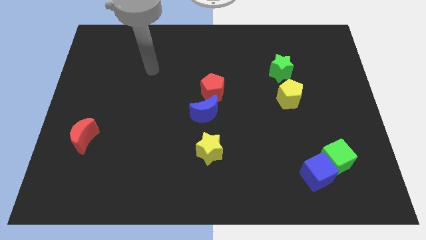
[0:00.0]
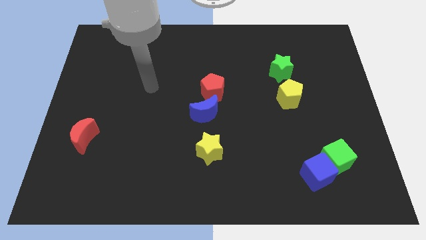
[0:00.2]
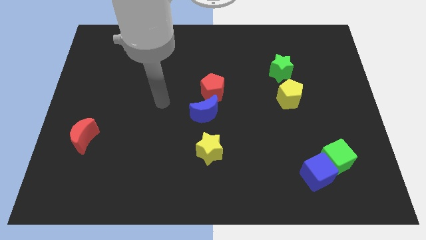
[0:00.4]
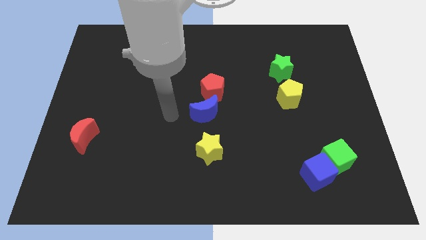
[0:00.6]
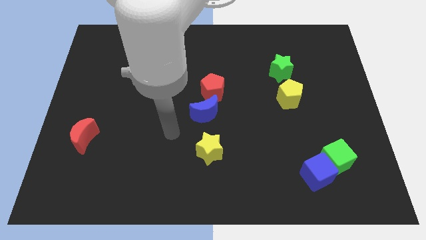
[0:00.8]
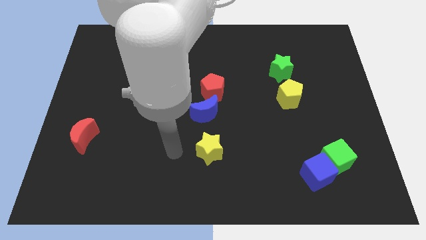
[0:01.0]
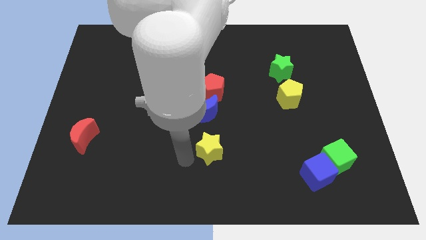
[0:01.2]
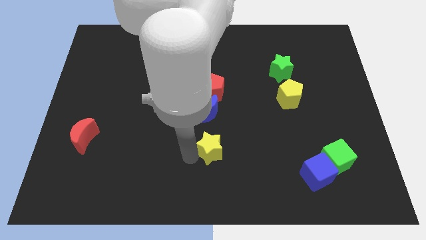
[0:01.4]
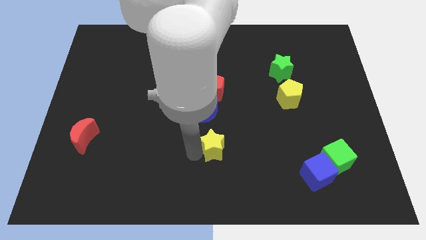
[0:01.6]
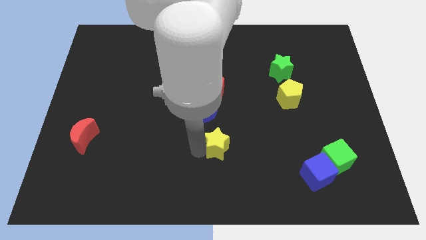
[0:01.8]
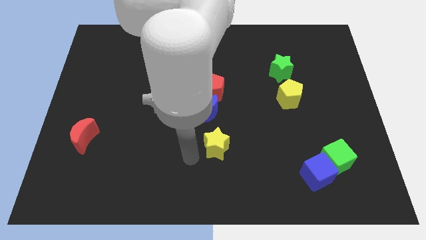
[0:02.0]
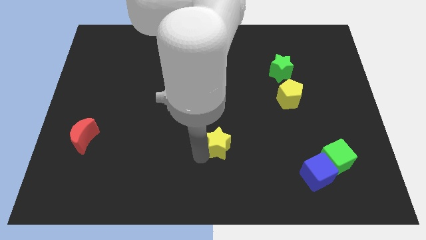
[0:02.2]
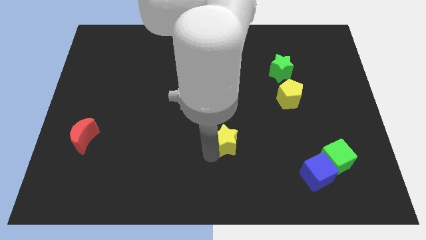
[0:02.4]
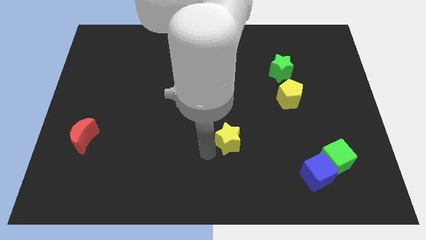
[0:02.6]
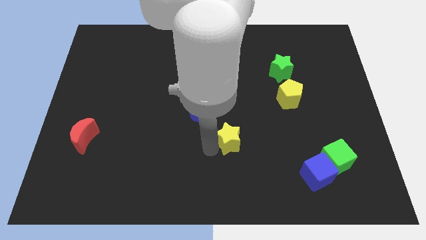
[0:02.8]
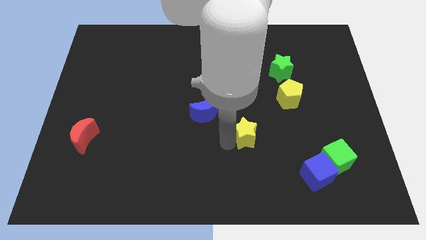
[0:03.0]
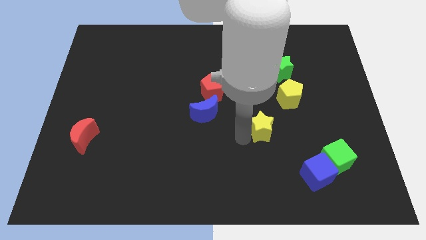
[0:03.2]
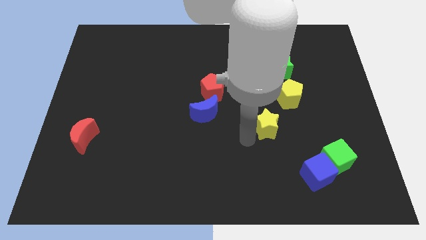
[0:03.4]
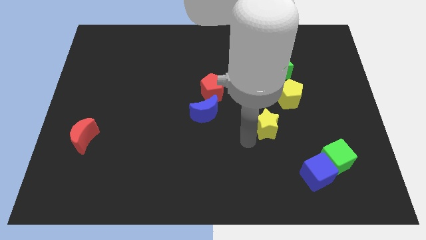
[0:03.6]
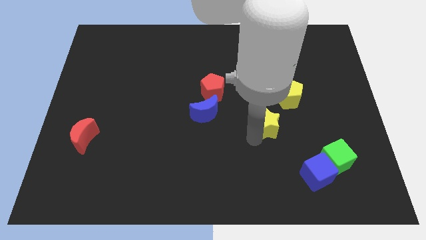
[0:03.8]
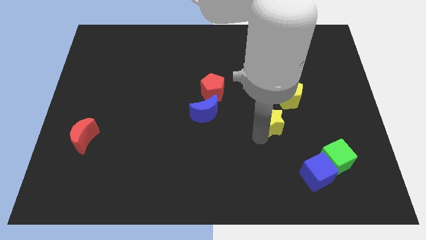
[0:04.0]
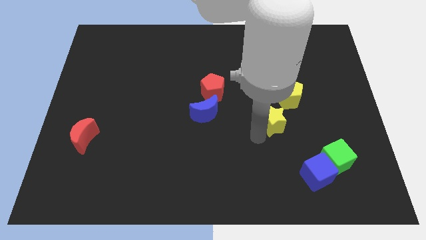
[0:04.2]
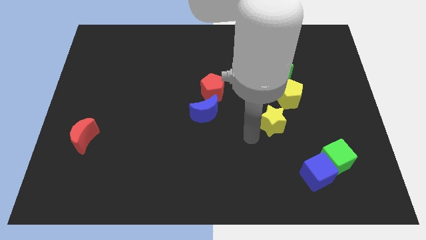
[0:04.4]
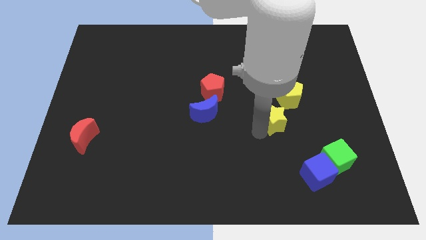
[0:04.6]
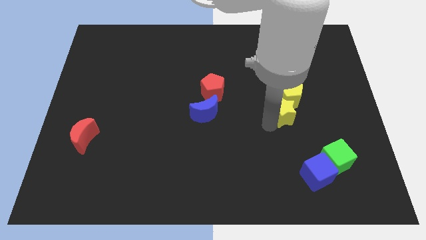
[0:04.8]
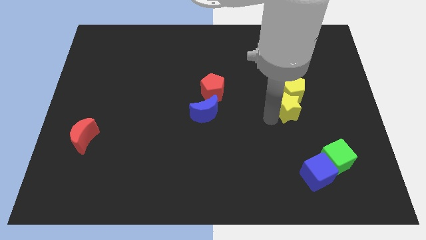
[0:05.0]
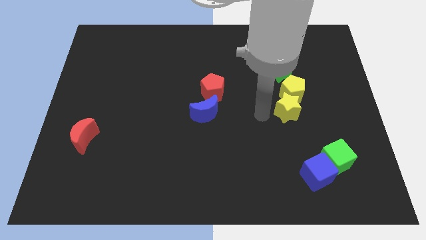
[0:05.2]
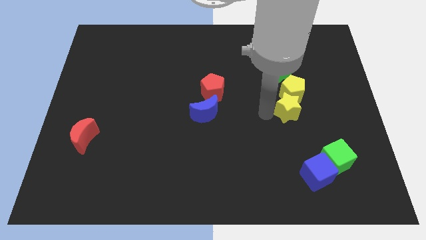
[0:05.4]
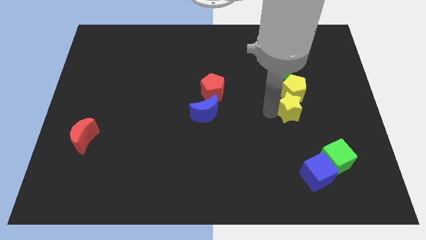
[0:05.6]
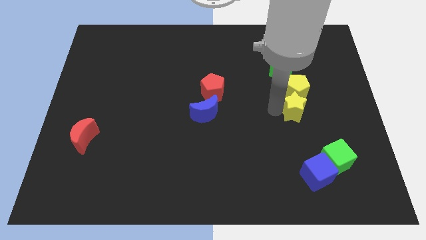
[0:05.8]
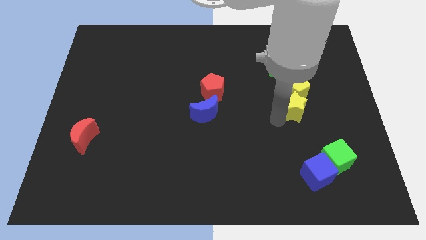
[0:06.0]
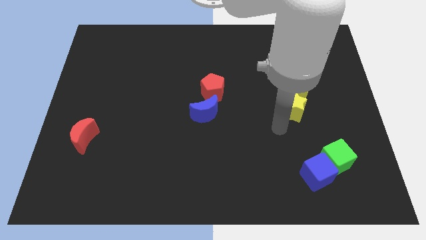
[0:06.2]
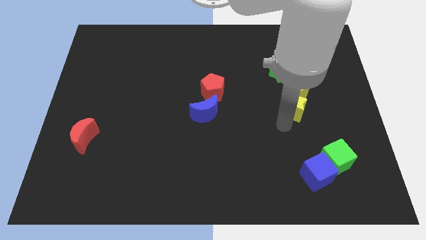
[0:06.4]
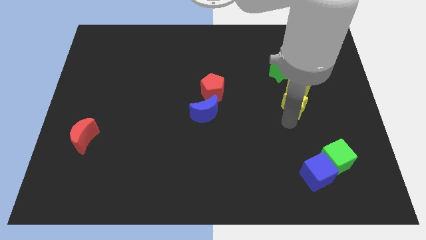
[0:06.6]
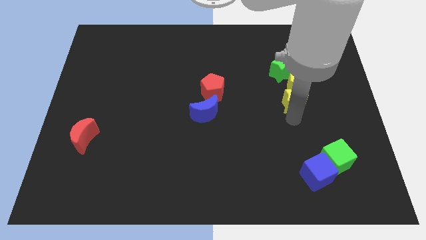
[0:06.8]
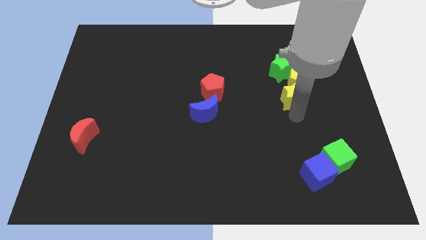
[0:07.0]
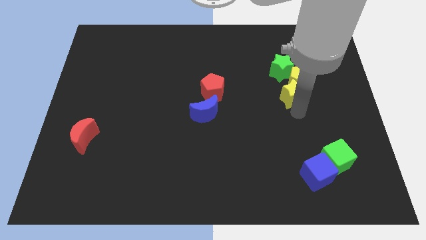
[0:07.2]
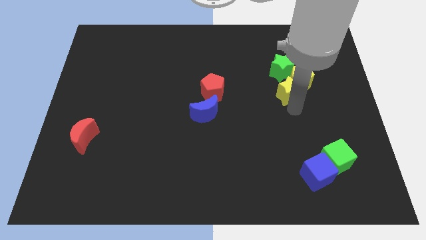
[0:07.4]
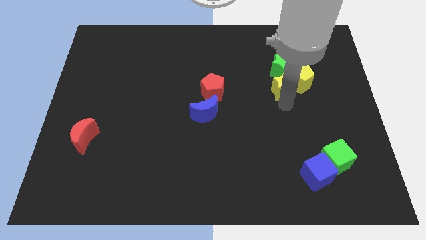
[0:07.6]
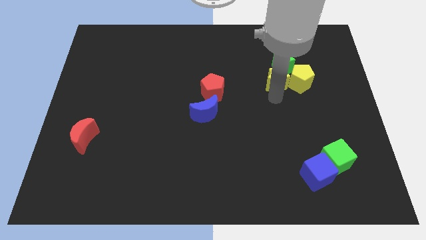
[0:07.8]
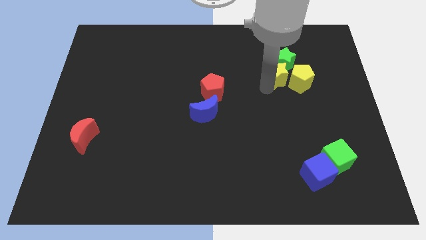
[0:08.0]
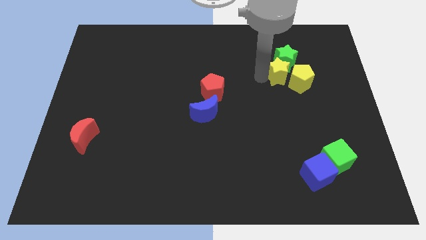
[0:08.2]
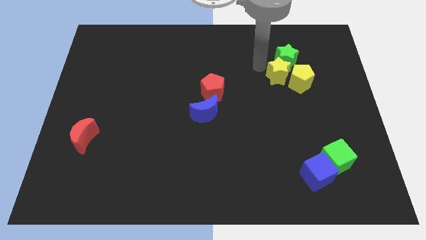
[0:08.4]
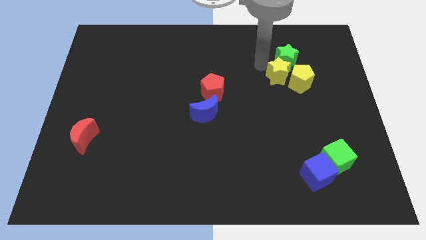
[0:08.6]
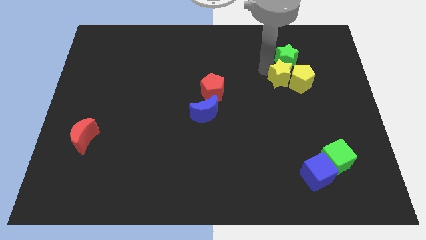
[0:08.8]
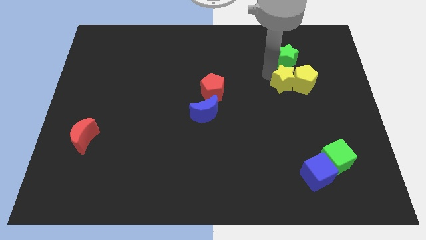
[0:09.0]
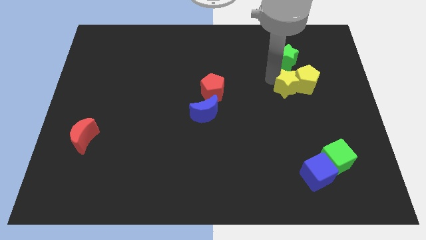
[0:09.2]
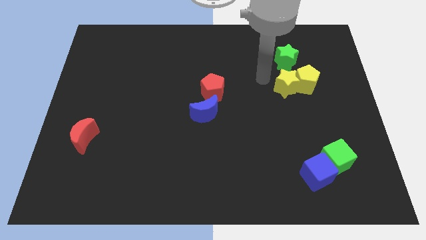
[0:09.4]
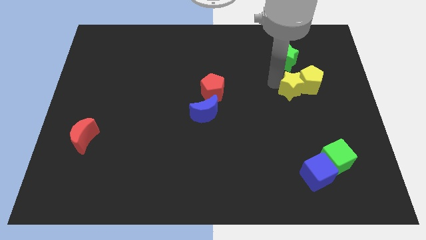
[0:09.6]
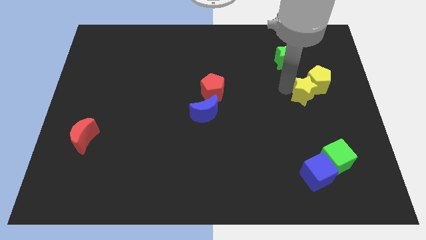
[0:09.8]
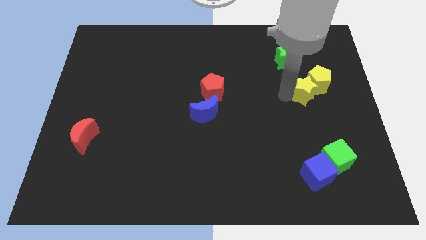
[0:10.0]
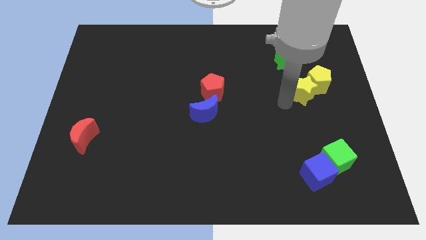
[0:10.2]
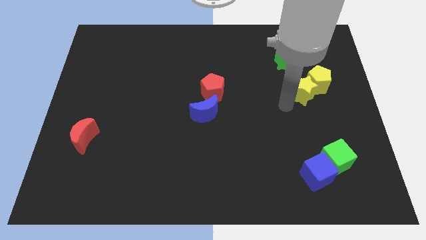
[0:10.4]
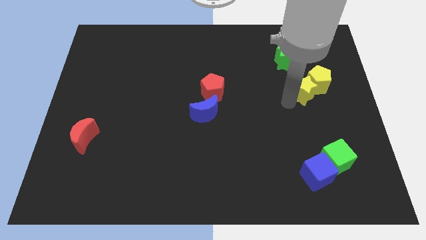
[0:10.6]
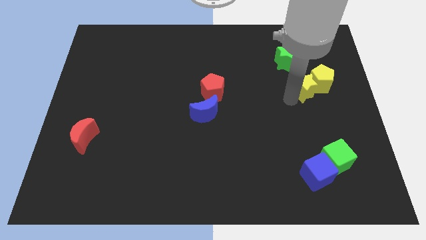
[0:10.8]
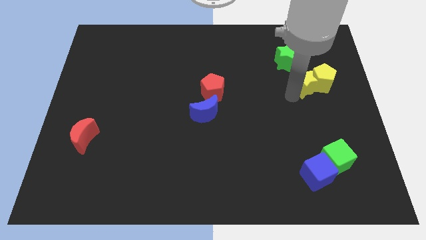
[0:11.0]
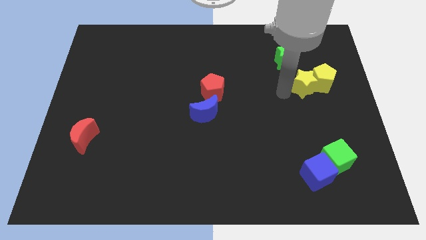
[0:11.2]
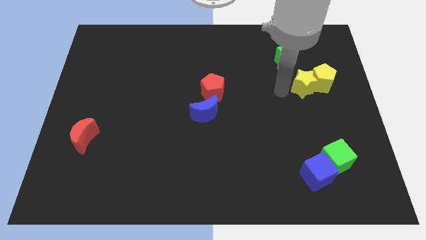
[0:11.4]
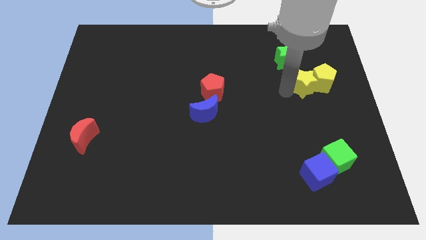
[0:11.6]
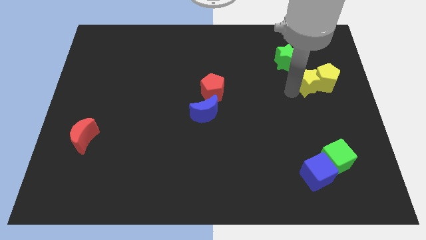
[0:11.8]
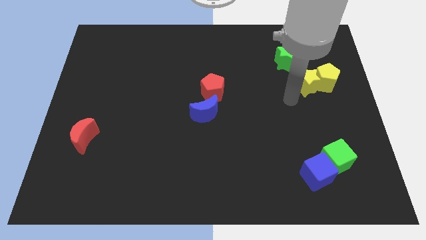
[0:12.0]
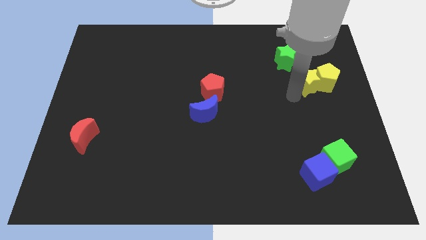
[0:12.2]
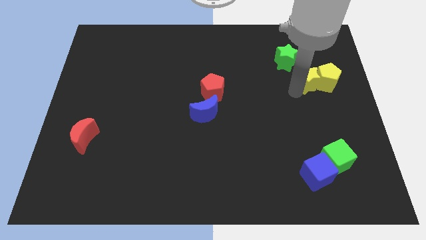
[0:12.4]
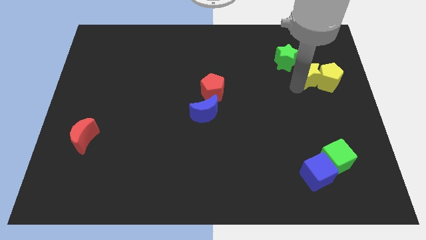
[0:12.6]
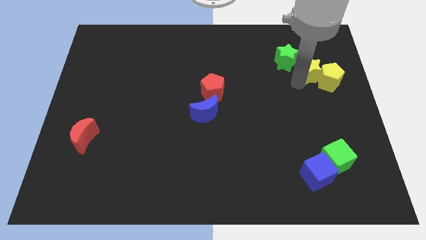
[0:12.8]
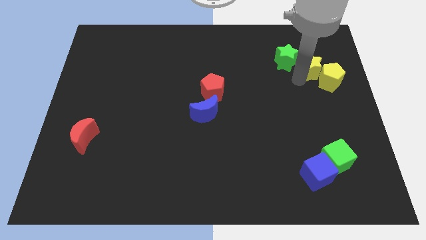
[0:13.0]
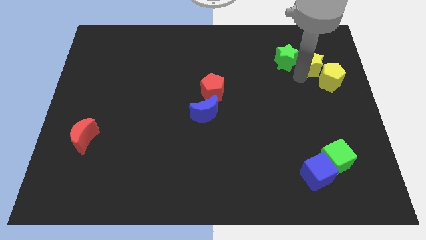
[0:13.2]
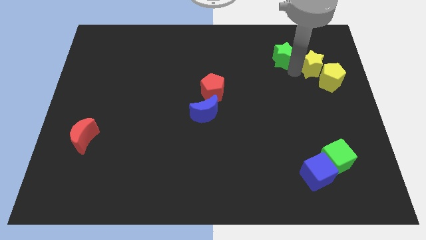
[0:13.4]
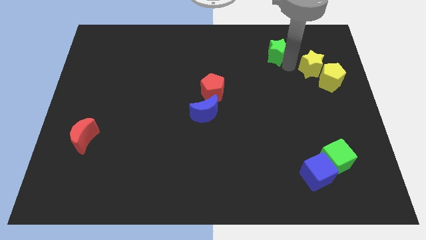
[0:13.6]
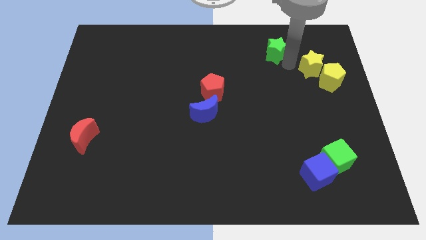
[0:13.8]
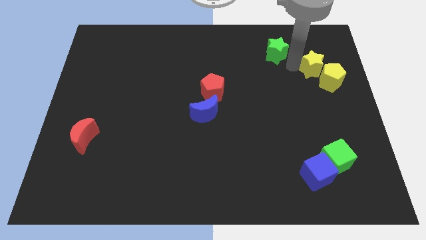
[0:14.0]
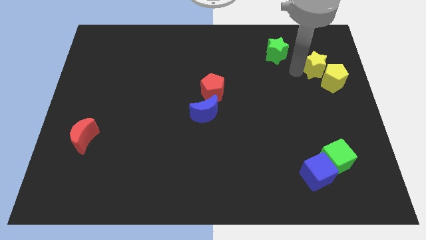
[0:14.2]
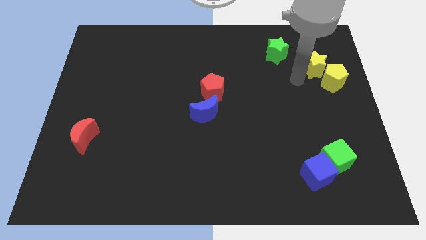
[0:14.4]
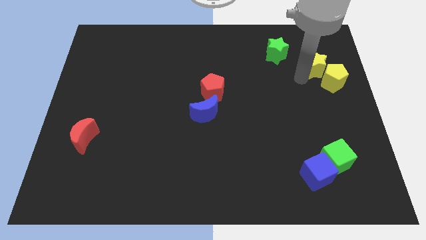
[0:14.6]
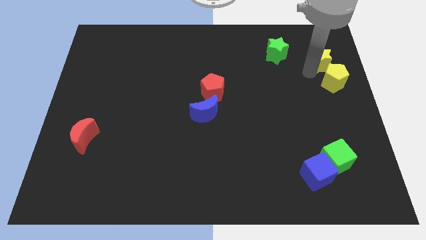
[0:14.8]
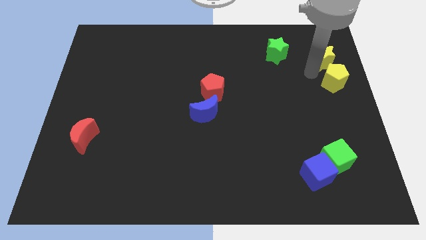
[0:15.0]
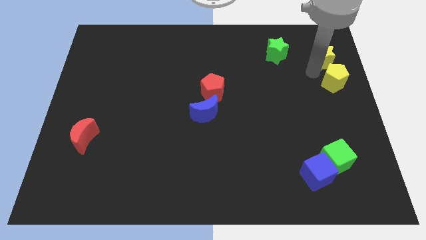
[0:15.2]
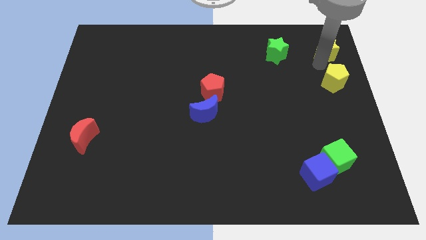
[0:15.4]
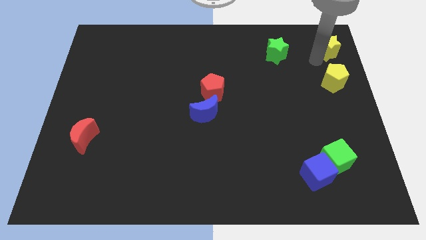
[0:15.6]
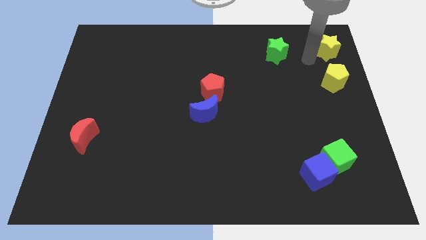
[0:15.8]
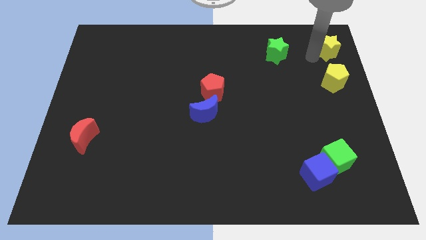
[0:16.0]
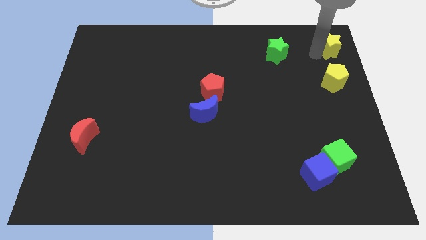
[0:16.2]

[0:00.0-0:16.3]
move the yellow star to the upper right corner
